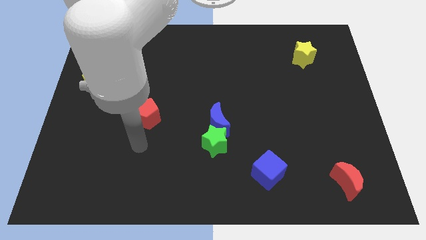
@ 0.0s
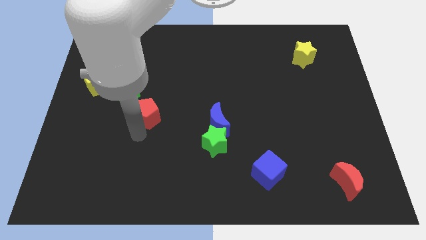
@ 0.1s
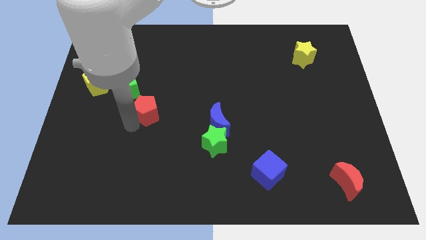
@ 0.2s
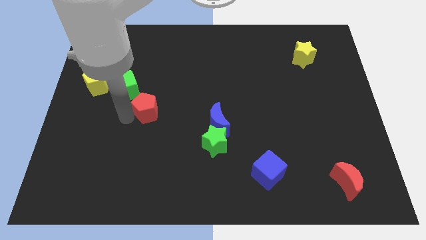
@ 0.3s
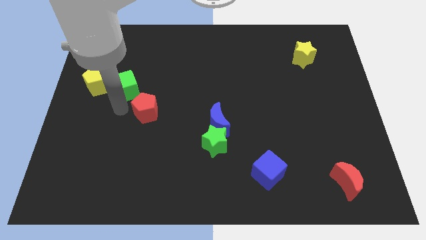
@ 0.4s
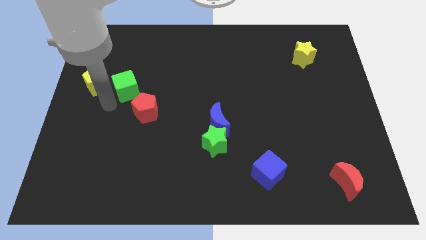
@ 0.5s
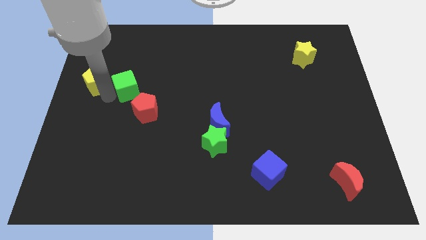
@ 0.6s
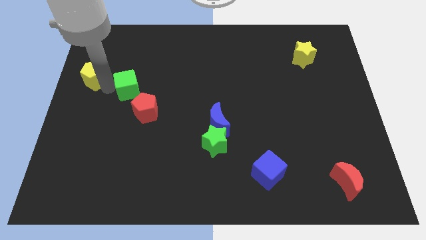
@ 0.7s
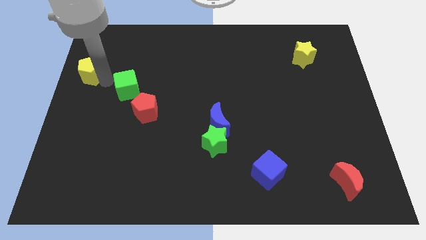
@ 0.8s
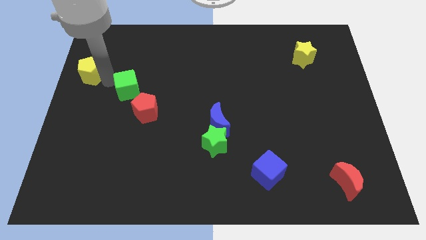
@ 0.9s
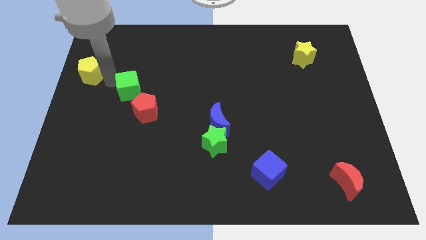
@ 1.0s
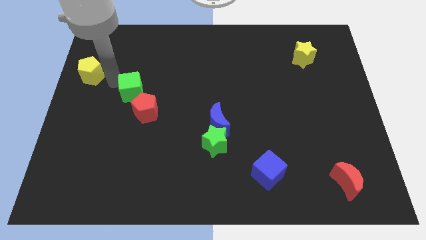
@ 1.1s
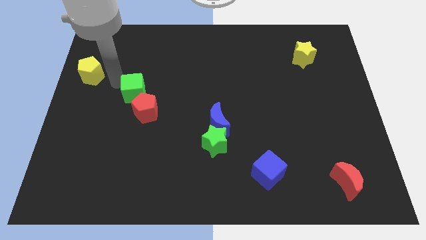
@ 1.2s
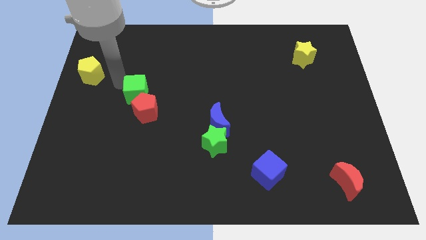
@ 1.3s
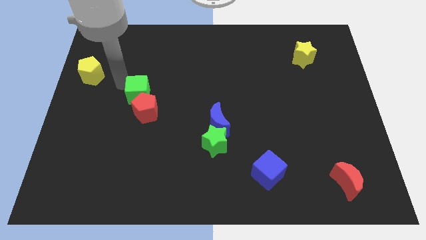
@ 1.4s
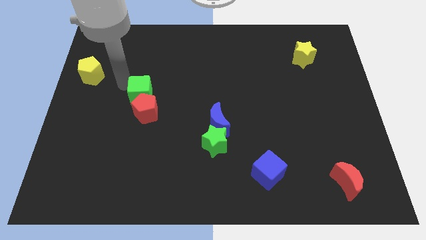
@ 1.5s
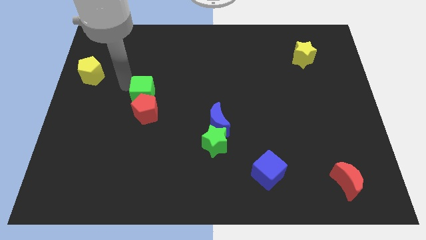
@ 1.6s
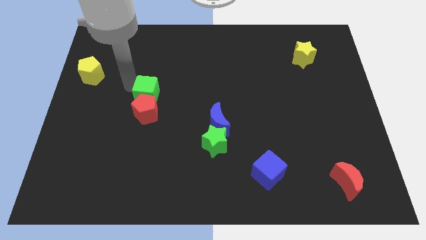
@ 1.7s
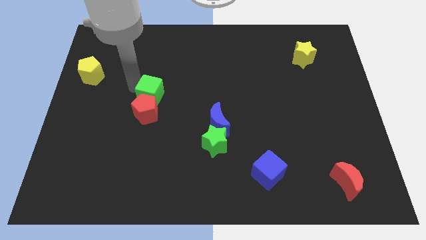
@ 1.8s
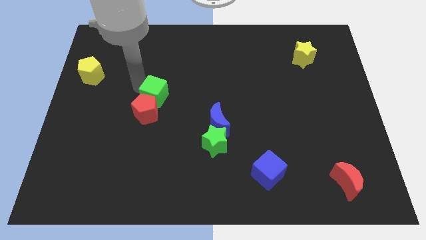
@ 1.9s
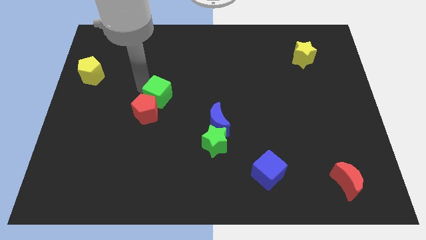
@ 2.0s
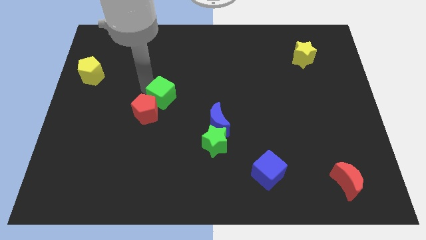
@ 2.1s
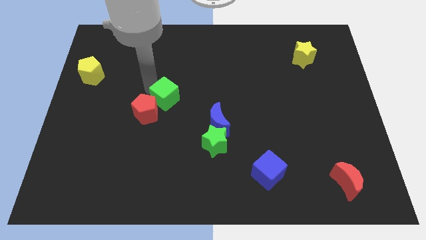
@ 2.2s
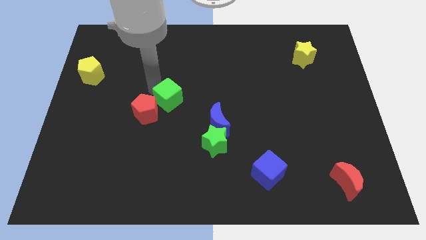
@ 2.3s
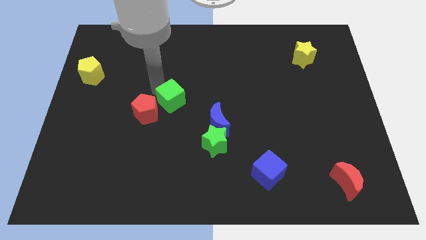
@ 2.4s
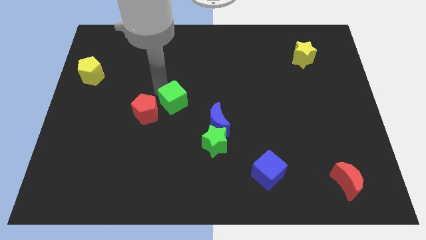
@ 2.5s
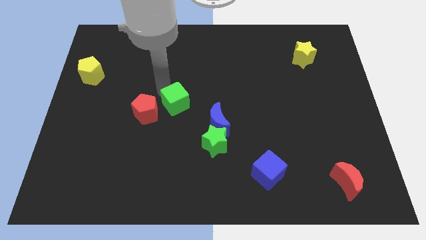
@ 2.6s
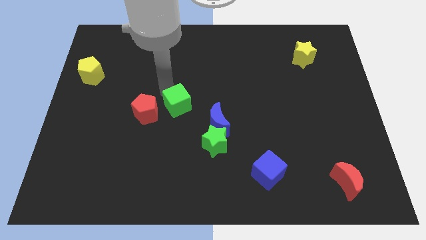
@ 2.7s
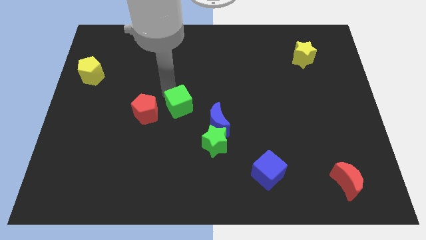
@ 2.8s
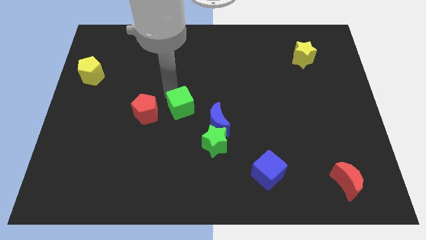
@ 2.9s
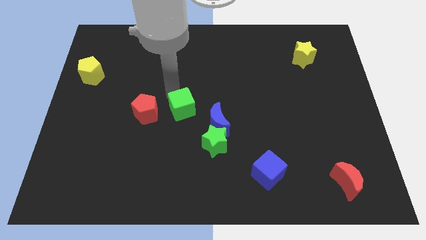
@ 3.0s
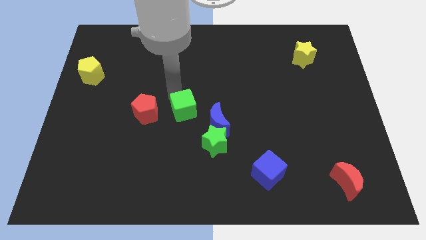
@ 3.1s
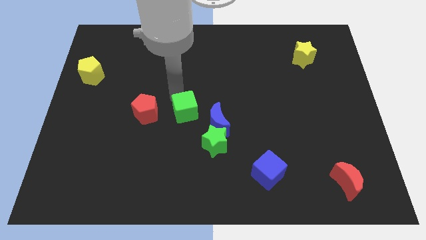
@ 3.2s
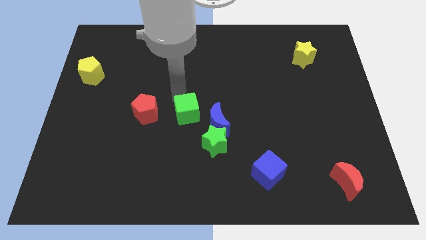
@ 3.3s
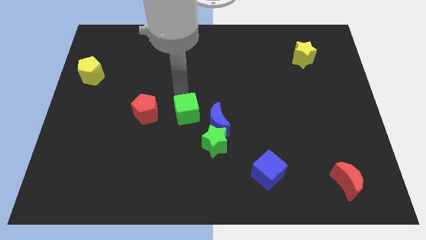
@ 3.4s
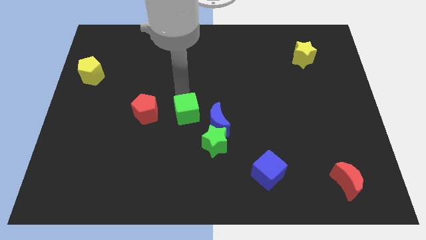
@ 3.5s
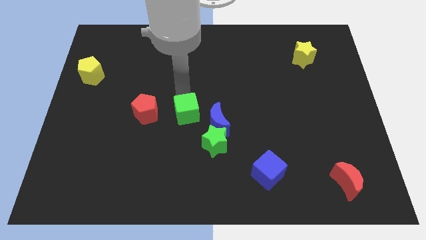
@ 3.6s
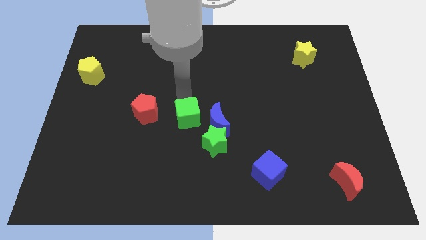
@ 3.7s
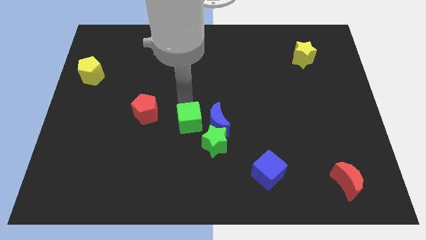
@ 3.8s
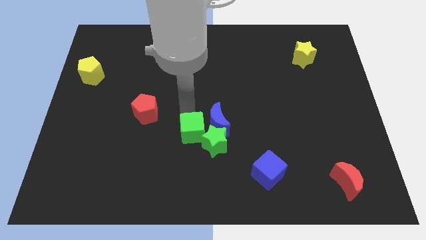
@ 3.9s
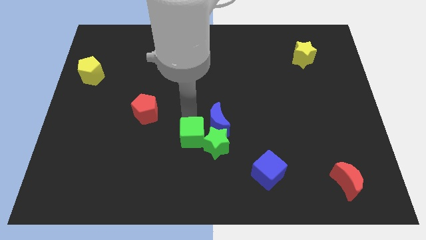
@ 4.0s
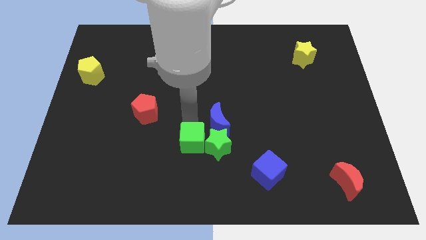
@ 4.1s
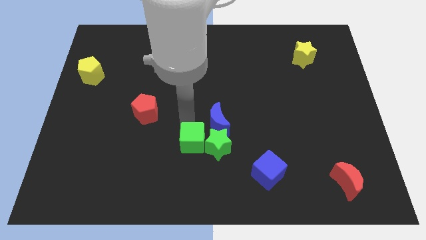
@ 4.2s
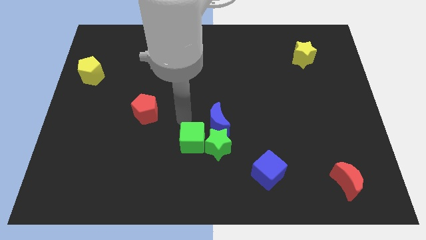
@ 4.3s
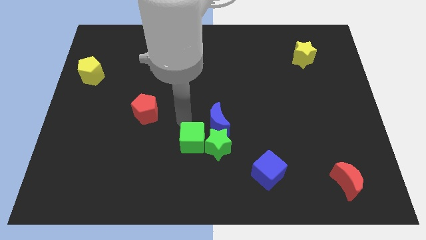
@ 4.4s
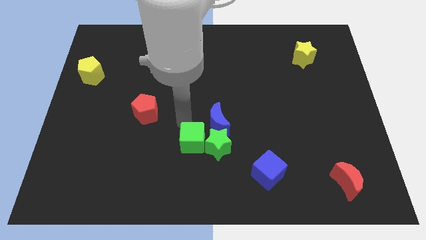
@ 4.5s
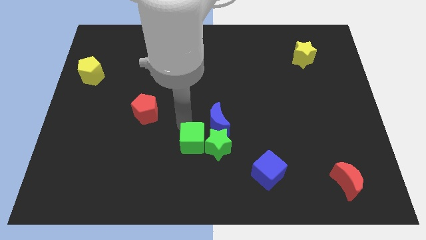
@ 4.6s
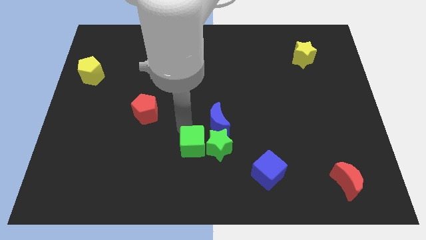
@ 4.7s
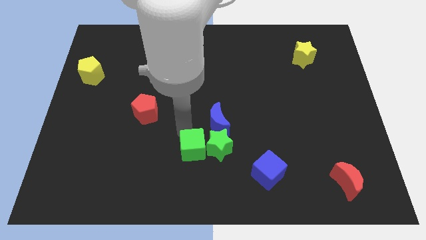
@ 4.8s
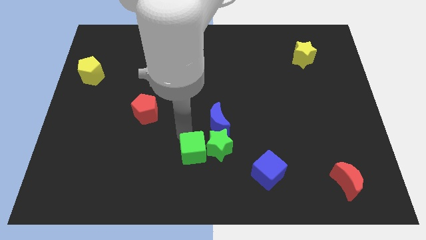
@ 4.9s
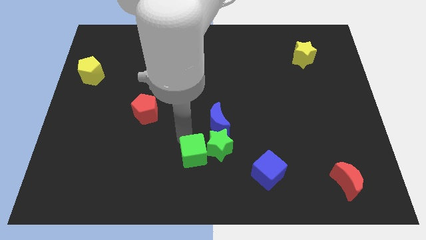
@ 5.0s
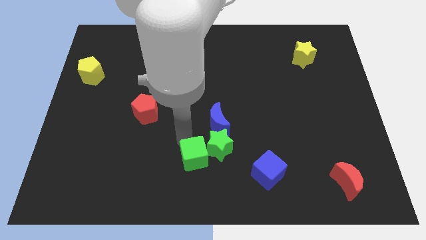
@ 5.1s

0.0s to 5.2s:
push the green cube to the bottom

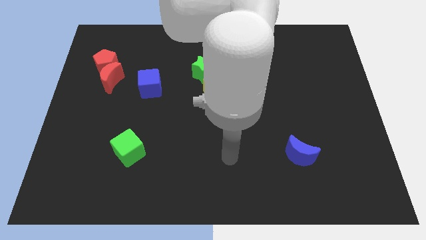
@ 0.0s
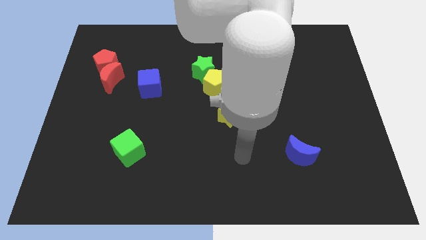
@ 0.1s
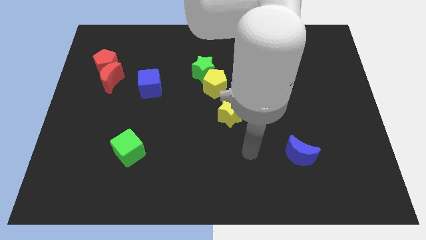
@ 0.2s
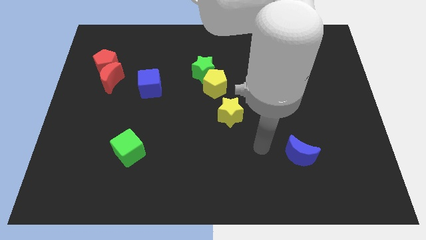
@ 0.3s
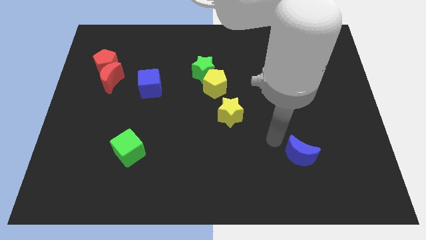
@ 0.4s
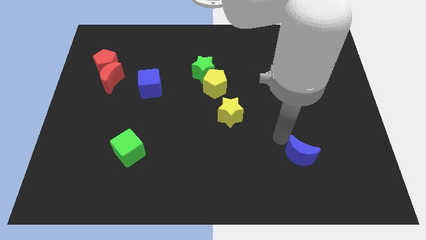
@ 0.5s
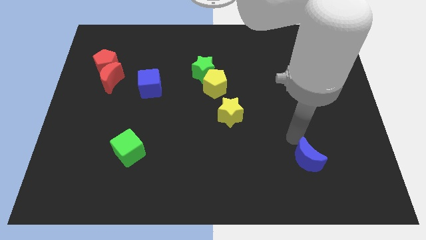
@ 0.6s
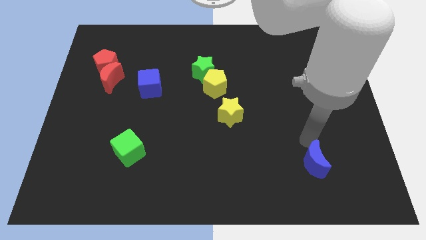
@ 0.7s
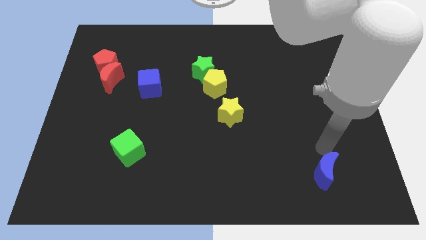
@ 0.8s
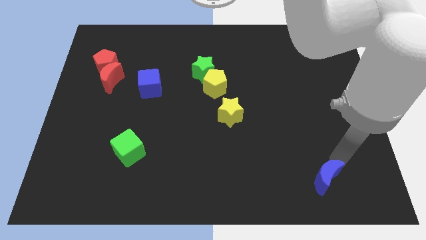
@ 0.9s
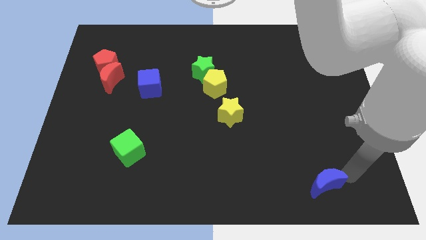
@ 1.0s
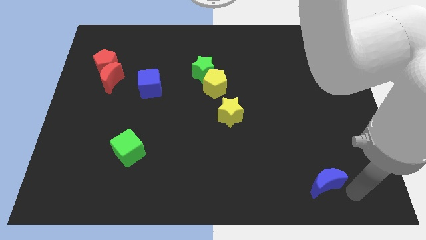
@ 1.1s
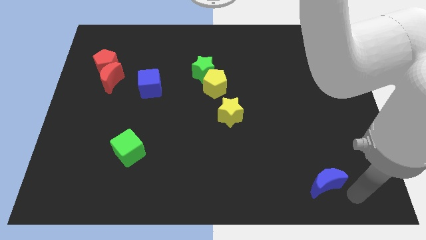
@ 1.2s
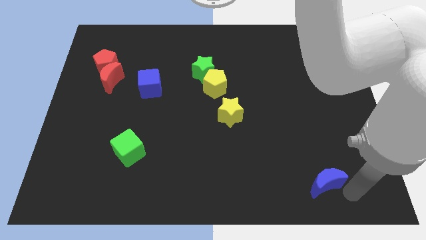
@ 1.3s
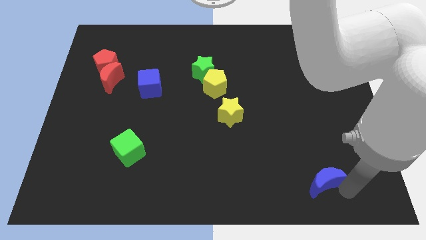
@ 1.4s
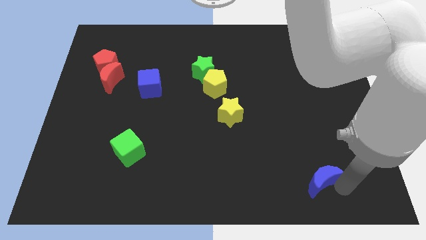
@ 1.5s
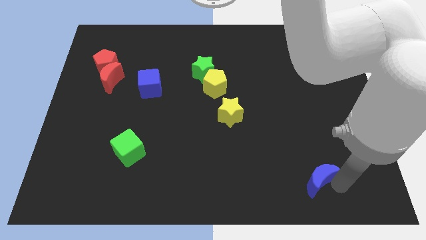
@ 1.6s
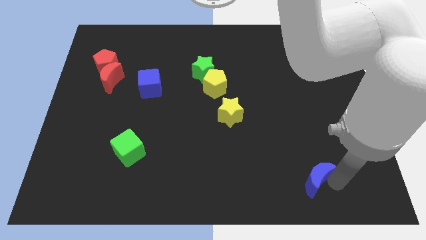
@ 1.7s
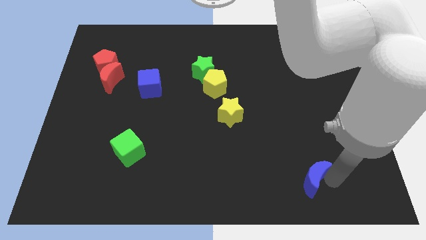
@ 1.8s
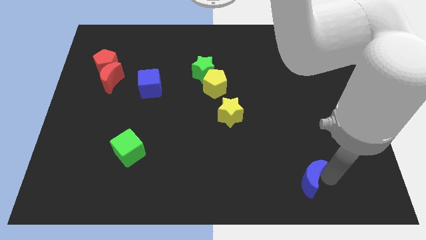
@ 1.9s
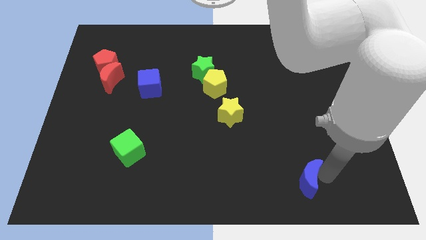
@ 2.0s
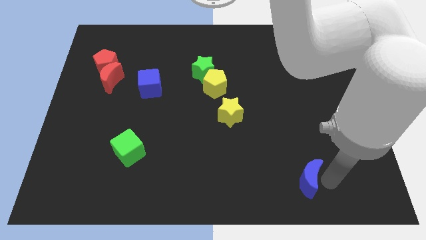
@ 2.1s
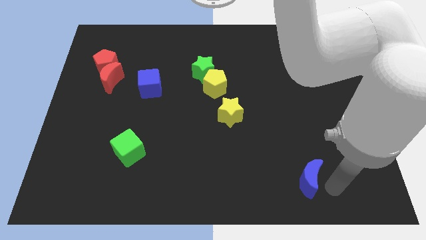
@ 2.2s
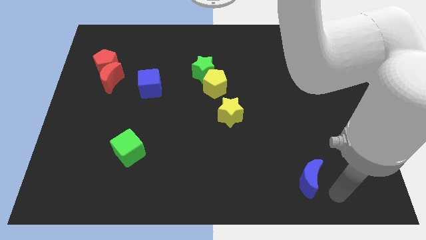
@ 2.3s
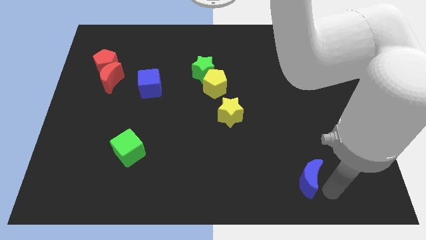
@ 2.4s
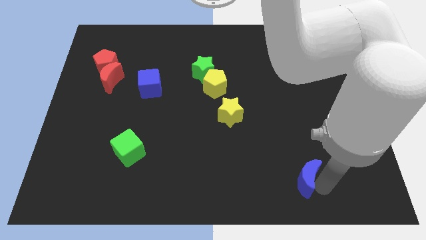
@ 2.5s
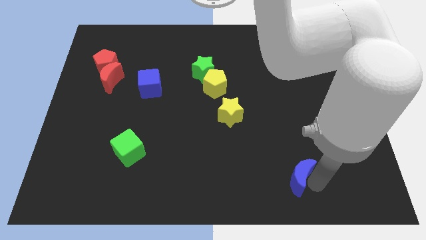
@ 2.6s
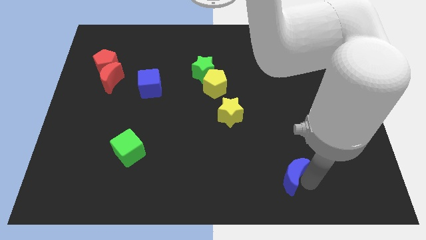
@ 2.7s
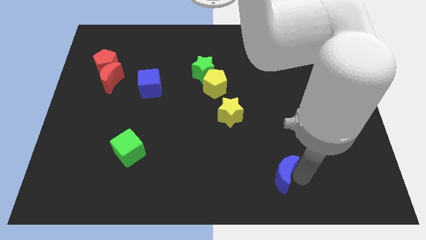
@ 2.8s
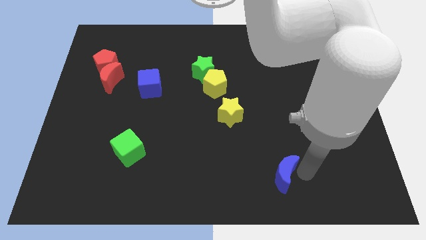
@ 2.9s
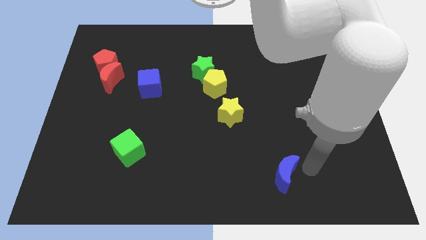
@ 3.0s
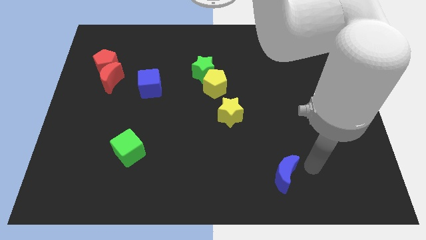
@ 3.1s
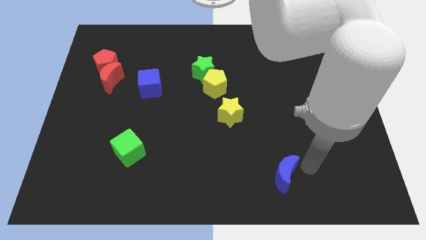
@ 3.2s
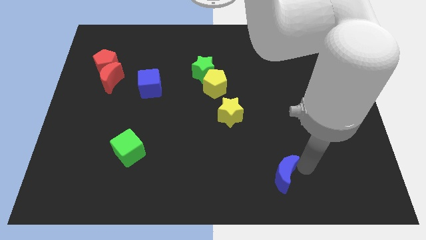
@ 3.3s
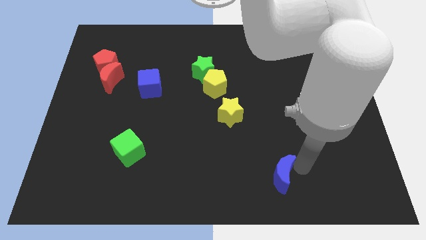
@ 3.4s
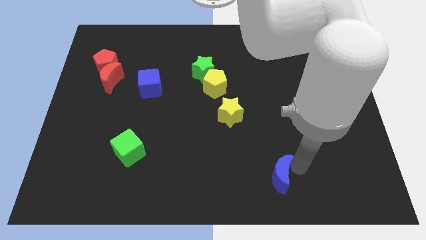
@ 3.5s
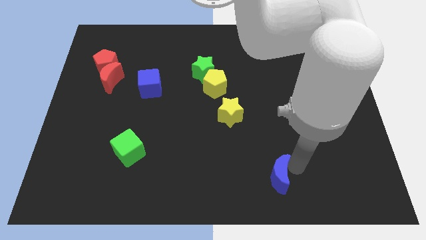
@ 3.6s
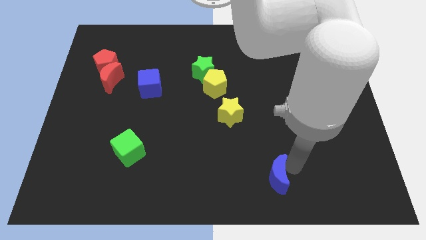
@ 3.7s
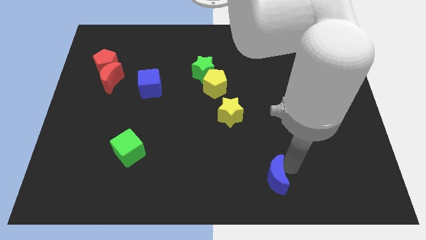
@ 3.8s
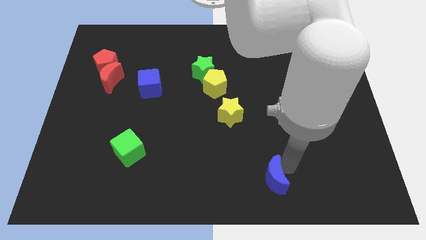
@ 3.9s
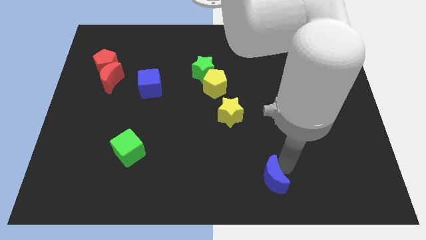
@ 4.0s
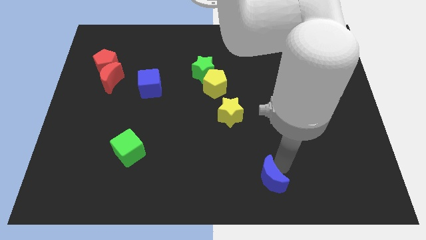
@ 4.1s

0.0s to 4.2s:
push the blue moon to the bottom
